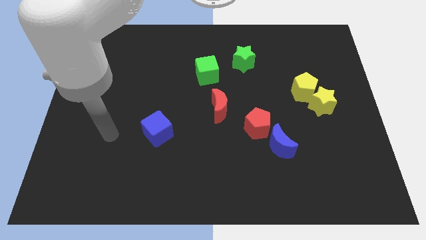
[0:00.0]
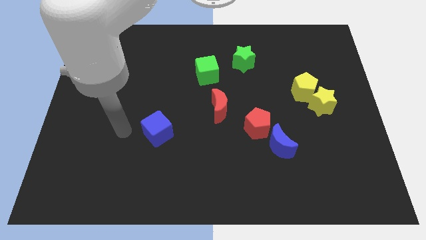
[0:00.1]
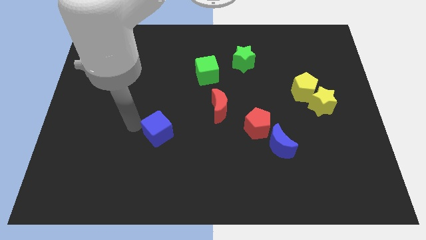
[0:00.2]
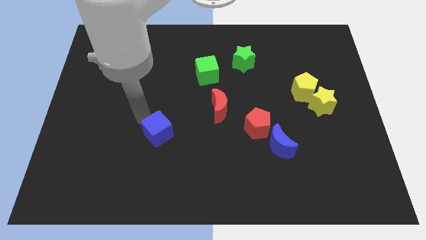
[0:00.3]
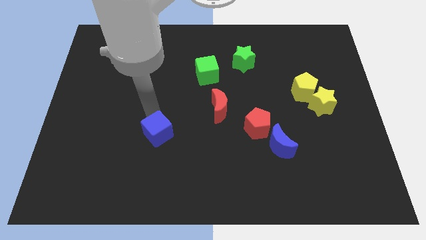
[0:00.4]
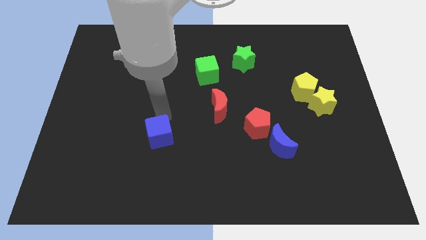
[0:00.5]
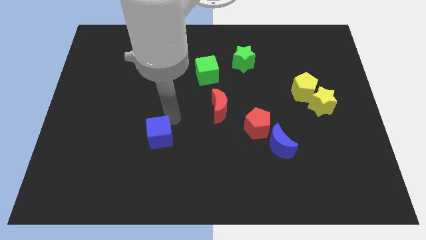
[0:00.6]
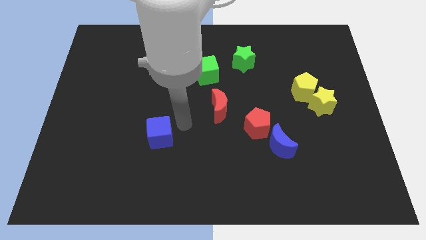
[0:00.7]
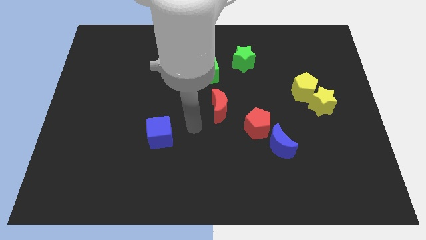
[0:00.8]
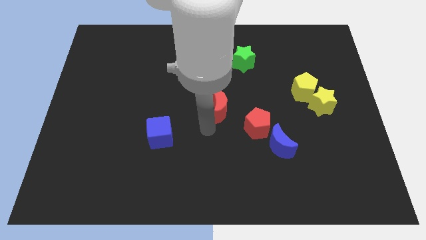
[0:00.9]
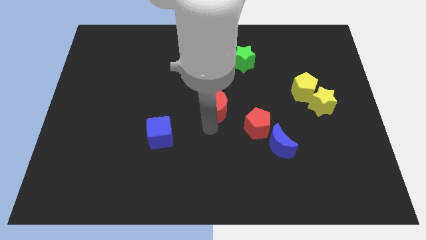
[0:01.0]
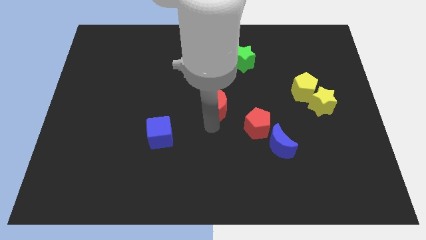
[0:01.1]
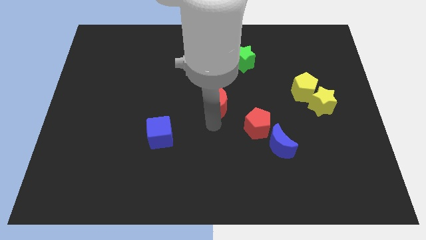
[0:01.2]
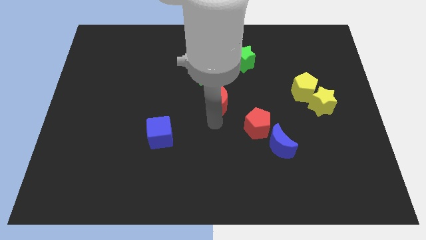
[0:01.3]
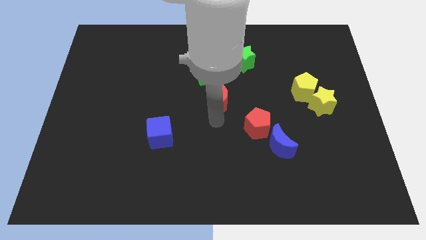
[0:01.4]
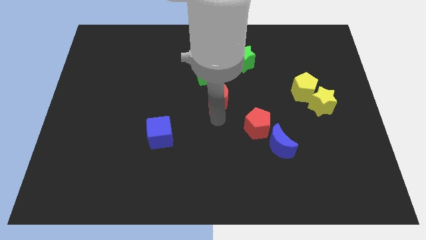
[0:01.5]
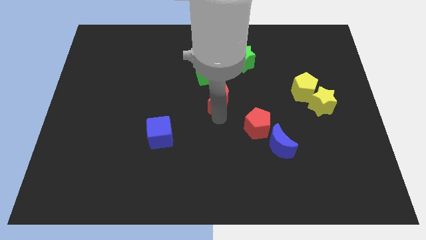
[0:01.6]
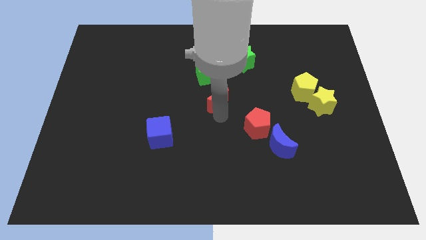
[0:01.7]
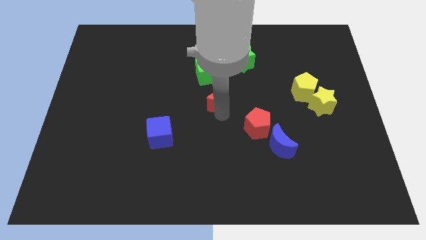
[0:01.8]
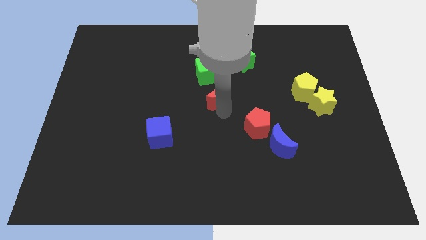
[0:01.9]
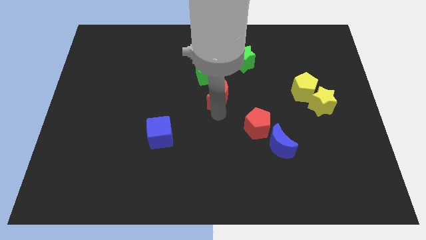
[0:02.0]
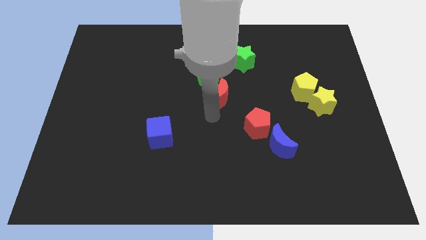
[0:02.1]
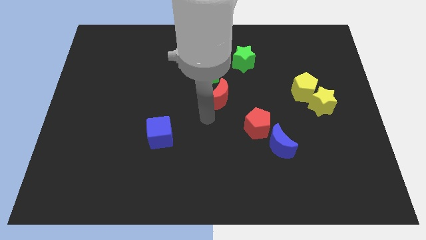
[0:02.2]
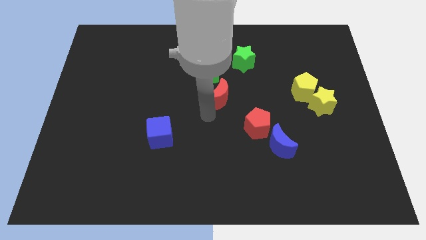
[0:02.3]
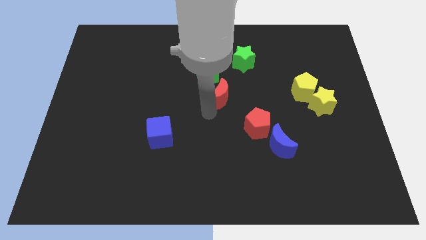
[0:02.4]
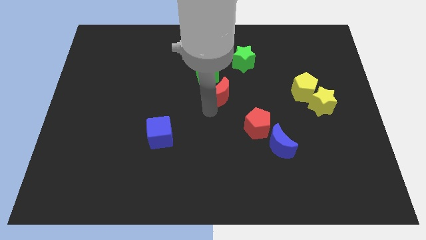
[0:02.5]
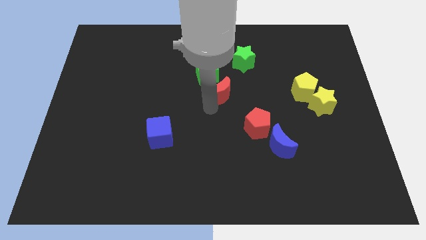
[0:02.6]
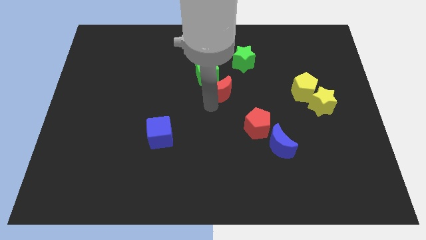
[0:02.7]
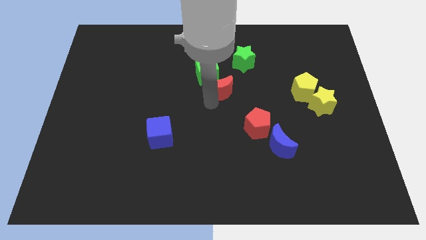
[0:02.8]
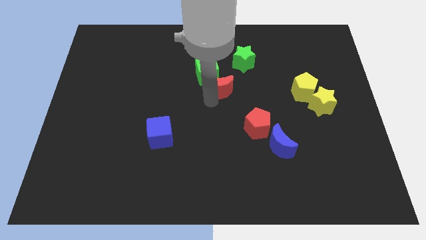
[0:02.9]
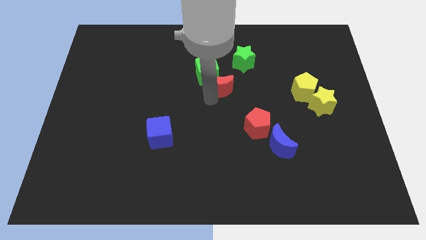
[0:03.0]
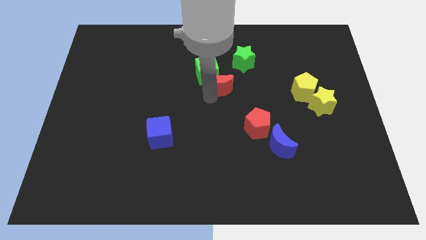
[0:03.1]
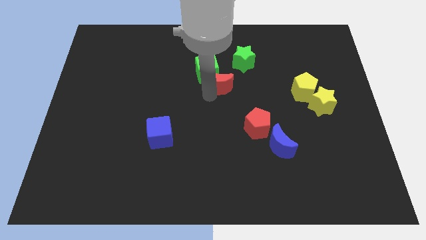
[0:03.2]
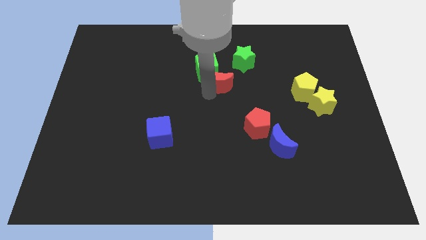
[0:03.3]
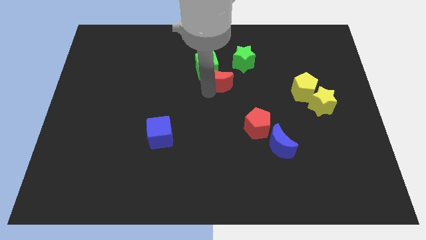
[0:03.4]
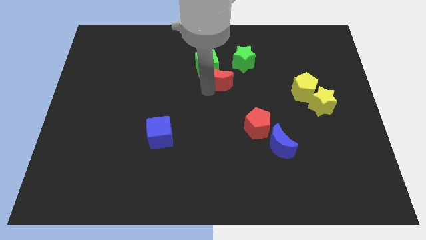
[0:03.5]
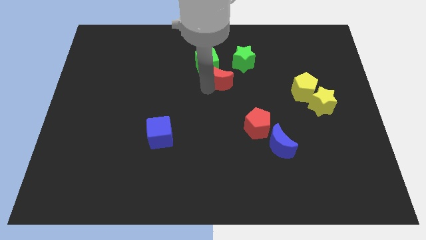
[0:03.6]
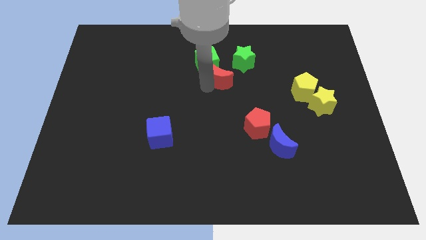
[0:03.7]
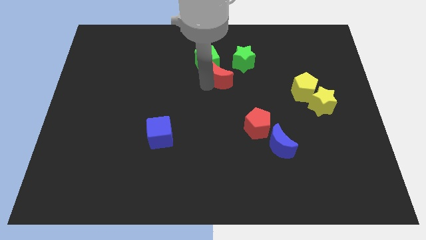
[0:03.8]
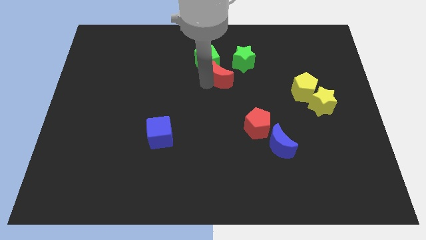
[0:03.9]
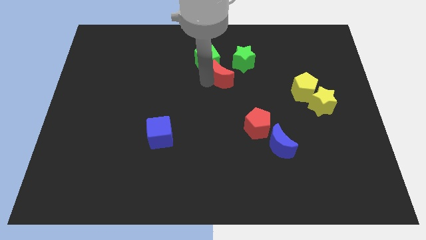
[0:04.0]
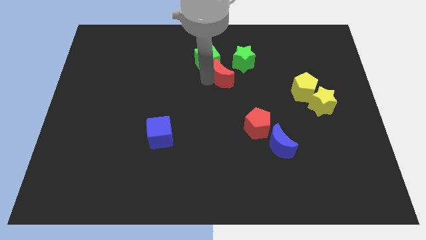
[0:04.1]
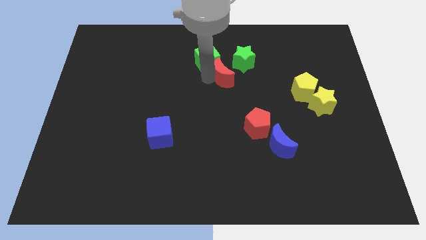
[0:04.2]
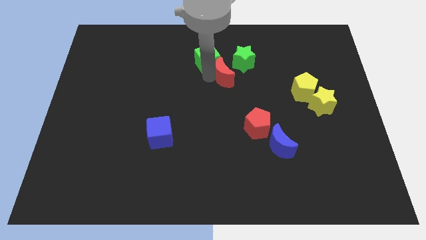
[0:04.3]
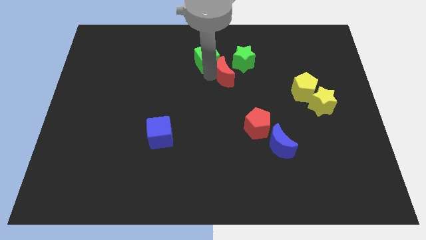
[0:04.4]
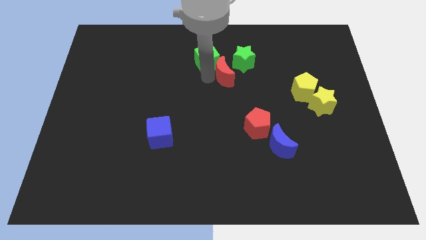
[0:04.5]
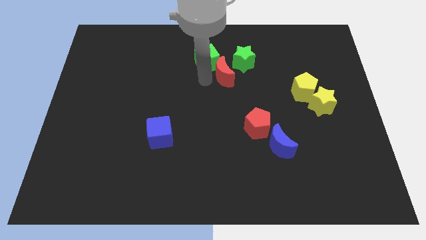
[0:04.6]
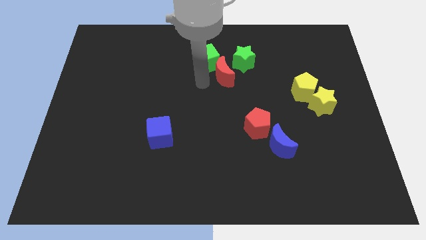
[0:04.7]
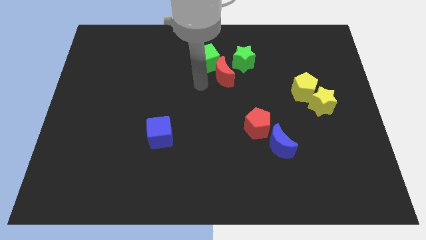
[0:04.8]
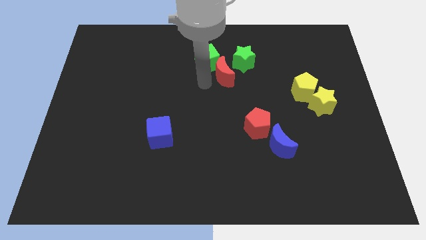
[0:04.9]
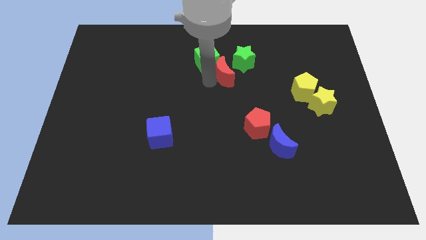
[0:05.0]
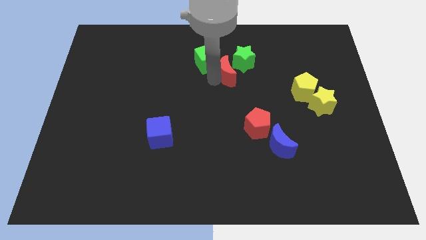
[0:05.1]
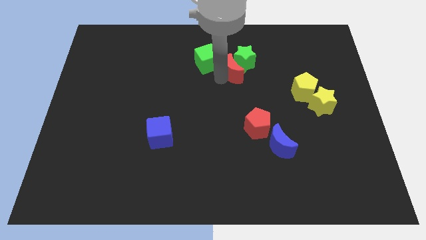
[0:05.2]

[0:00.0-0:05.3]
move the red moon to the green star

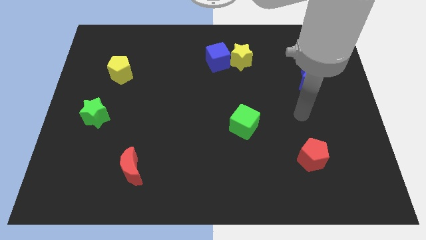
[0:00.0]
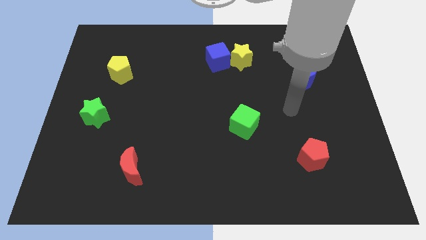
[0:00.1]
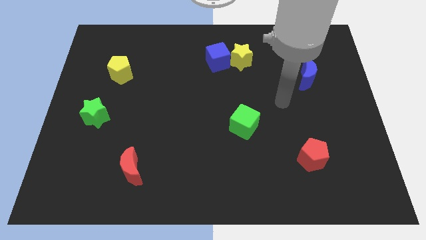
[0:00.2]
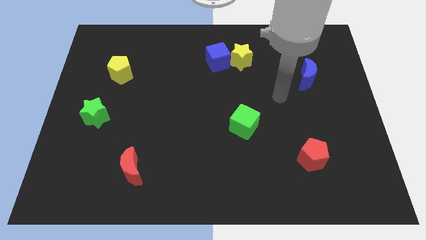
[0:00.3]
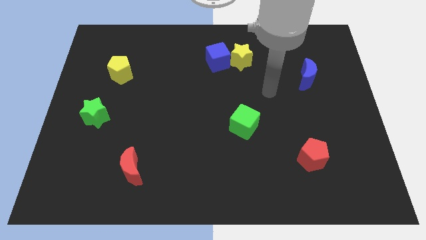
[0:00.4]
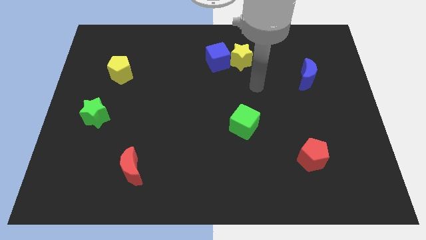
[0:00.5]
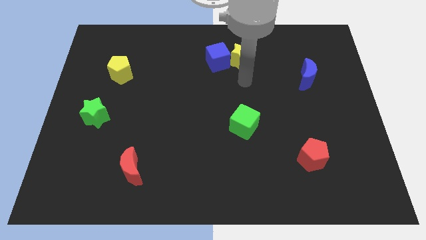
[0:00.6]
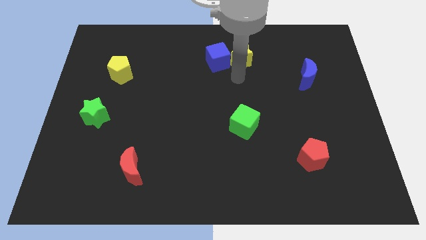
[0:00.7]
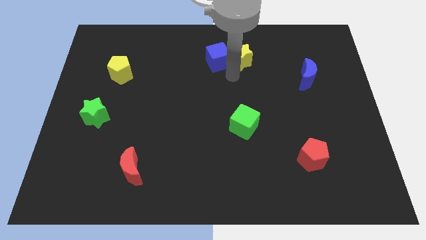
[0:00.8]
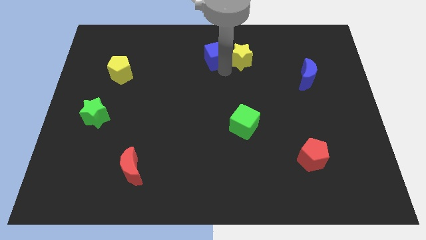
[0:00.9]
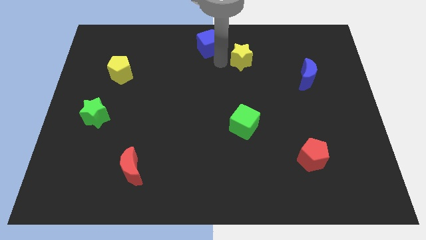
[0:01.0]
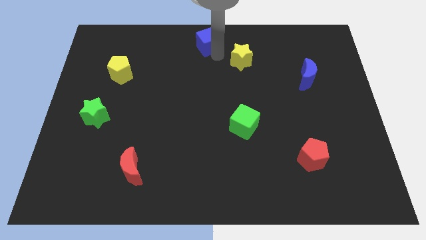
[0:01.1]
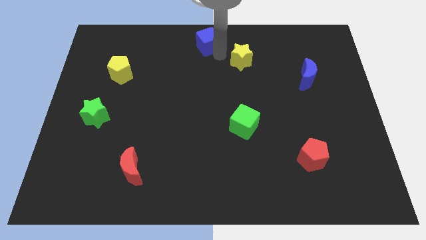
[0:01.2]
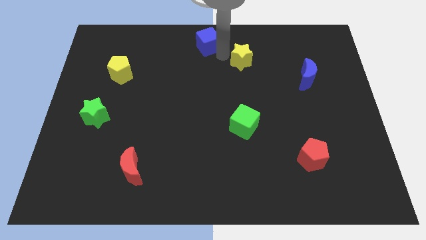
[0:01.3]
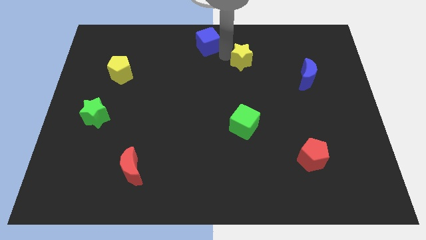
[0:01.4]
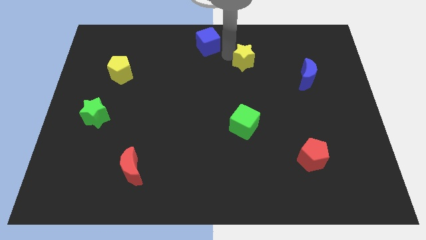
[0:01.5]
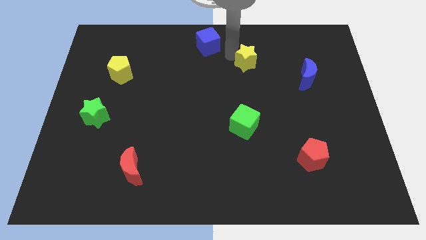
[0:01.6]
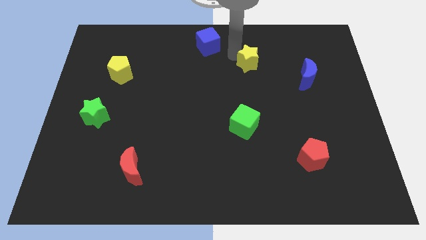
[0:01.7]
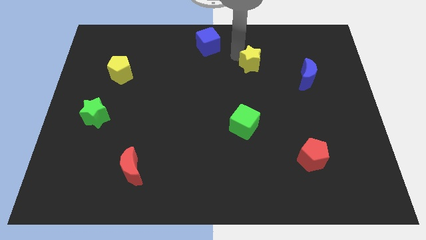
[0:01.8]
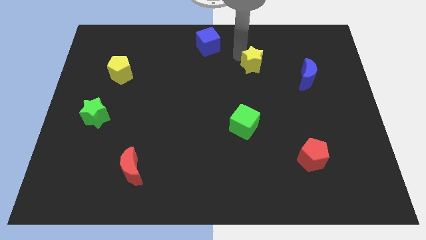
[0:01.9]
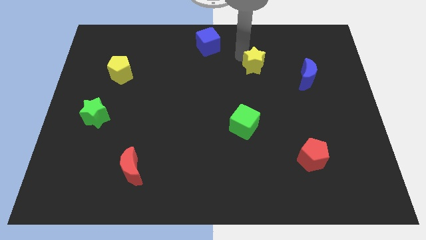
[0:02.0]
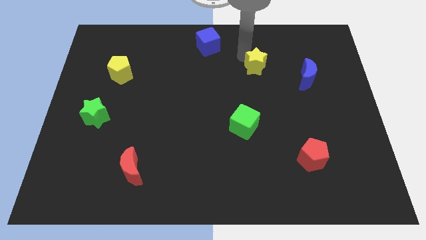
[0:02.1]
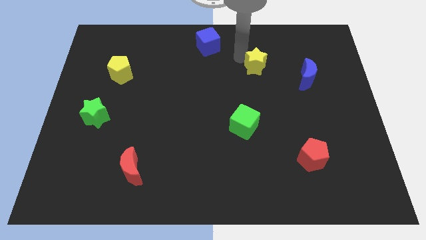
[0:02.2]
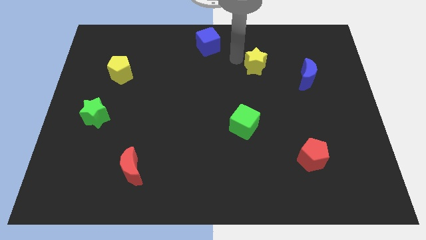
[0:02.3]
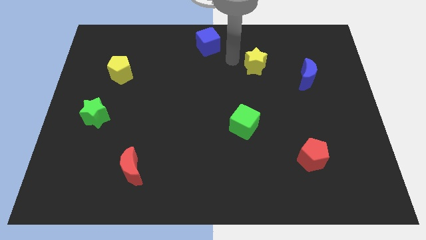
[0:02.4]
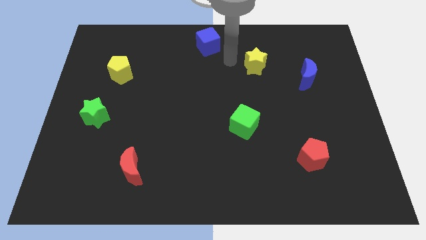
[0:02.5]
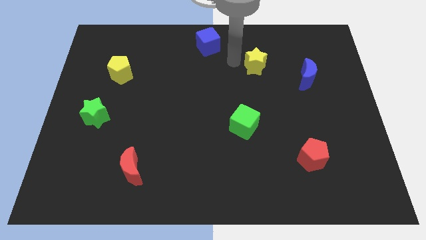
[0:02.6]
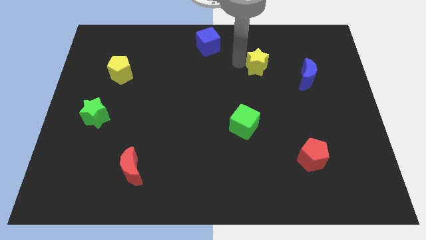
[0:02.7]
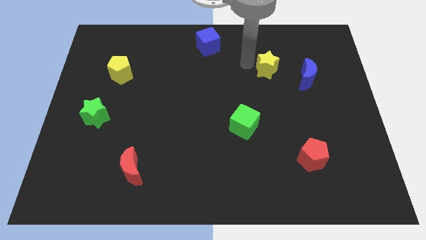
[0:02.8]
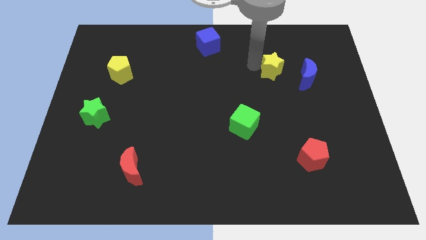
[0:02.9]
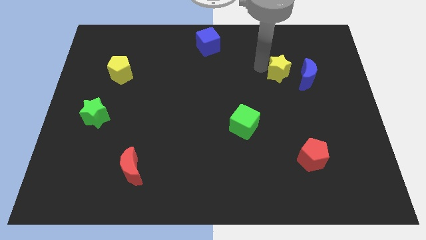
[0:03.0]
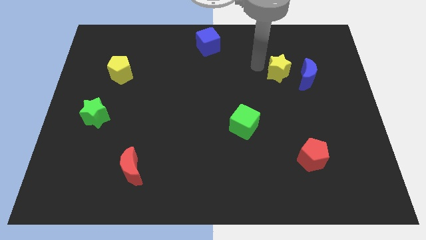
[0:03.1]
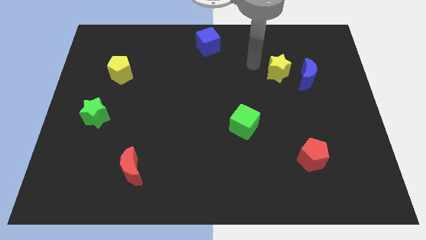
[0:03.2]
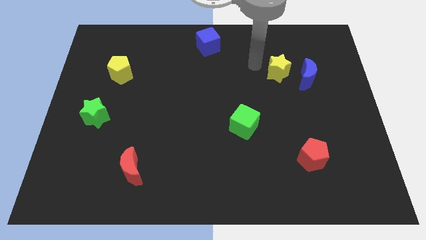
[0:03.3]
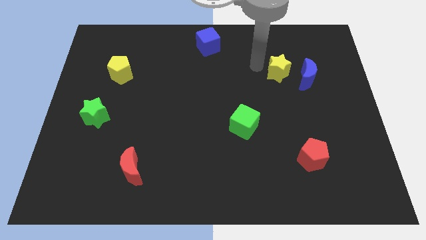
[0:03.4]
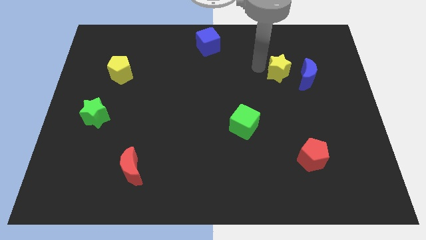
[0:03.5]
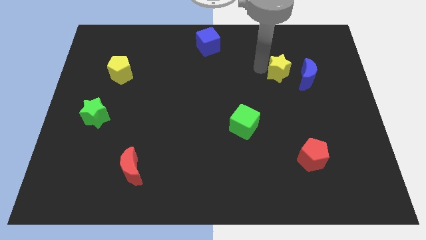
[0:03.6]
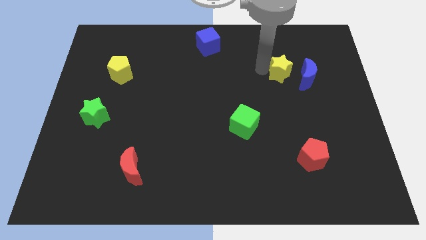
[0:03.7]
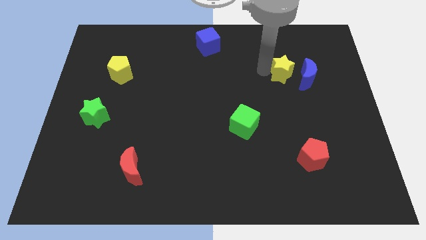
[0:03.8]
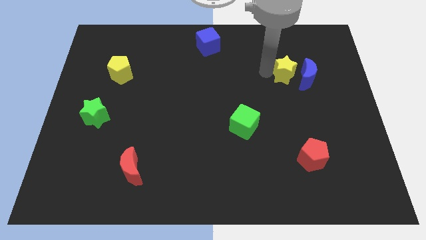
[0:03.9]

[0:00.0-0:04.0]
slide the yellow star to the blue moon
